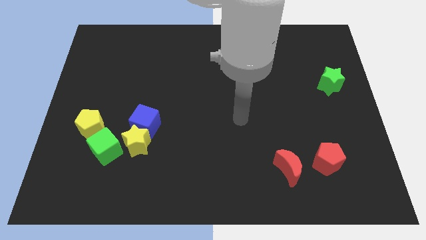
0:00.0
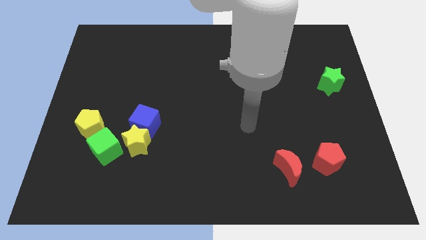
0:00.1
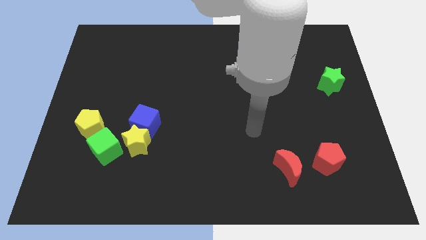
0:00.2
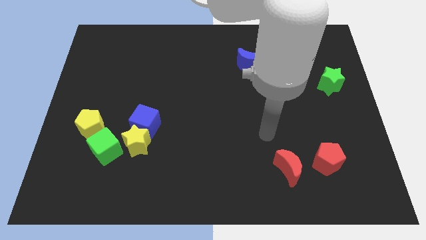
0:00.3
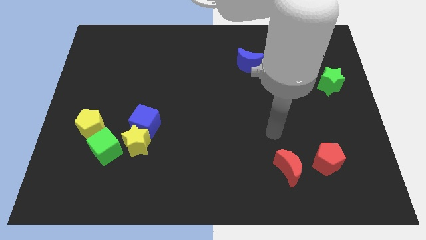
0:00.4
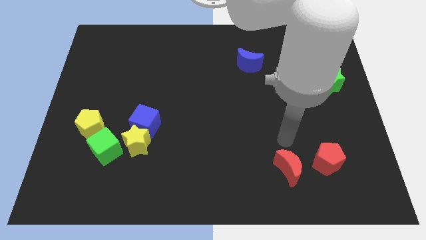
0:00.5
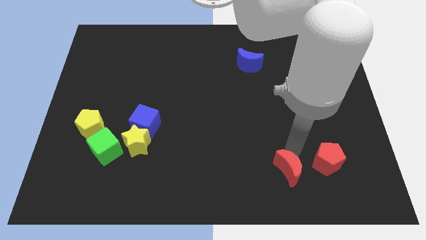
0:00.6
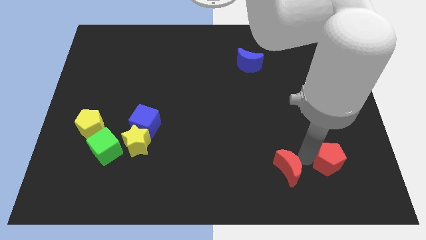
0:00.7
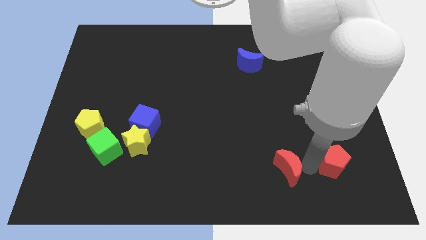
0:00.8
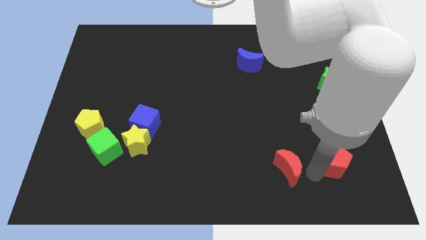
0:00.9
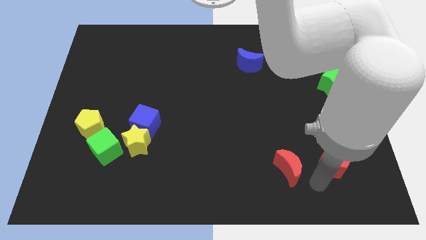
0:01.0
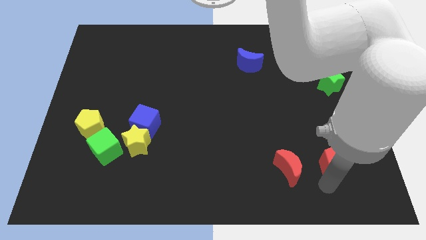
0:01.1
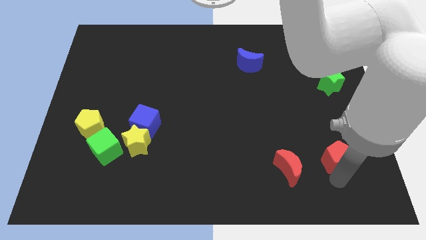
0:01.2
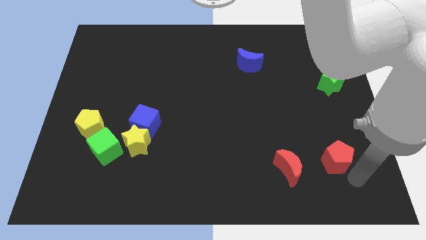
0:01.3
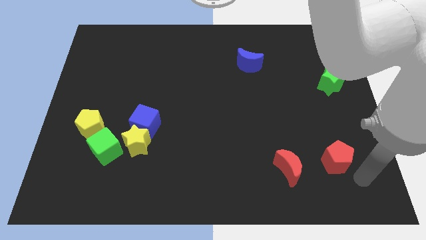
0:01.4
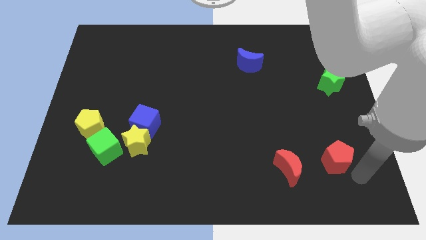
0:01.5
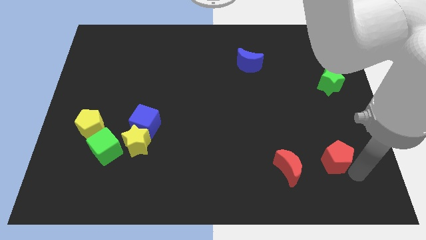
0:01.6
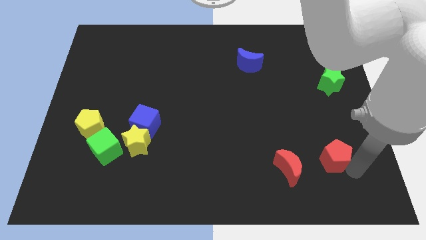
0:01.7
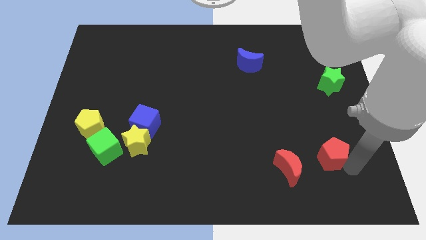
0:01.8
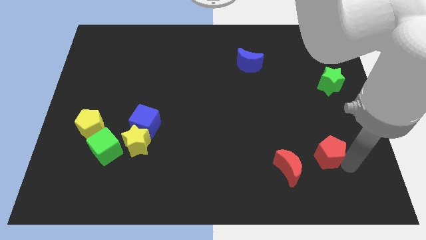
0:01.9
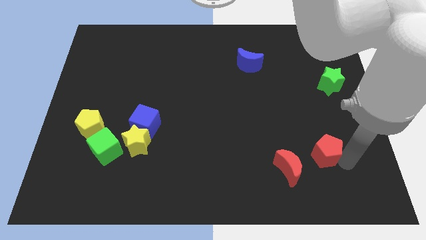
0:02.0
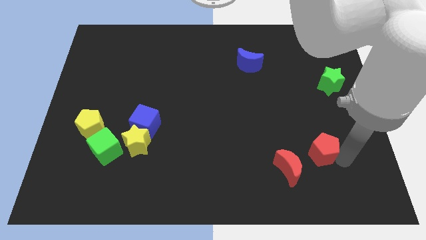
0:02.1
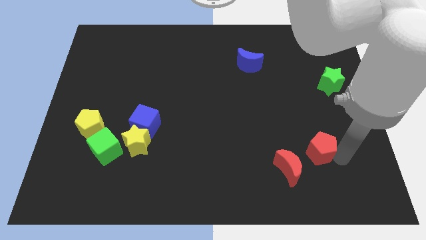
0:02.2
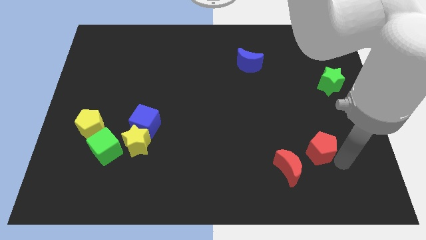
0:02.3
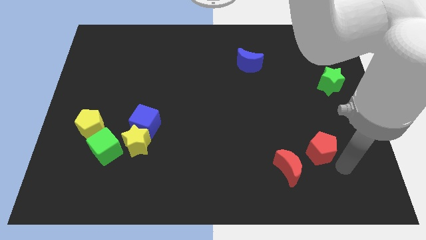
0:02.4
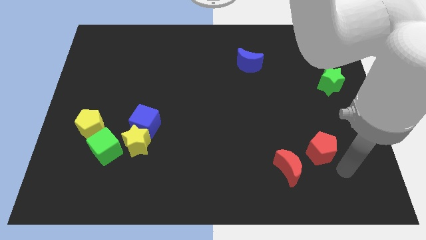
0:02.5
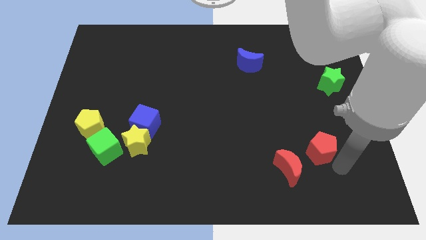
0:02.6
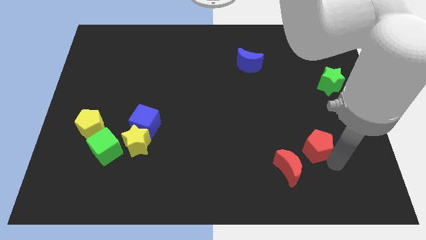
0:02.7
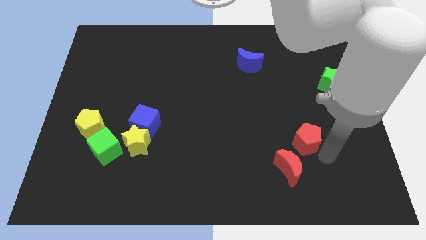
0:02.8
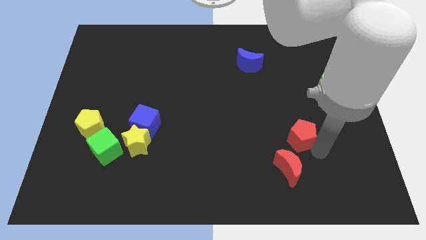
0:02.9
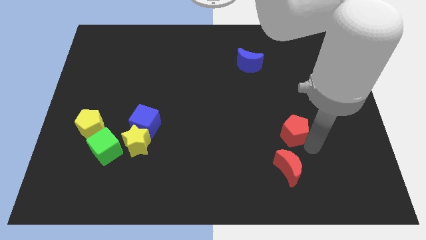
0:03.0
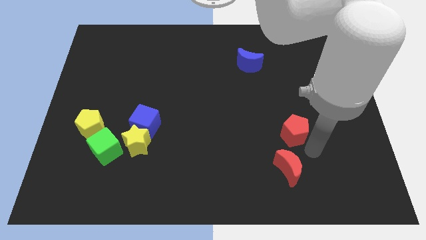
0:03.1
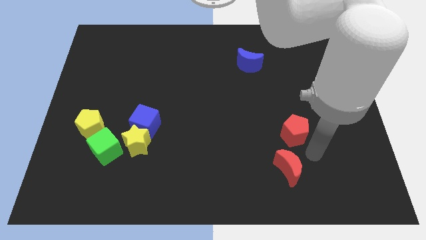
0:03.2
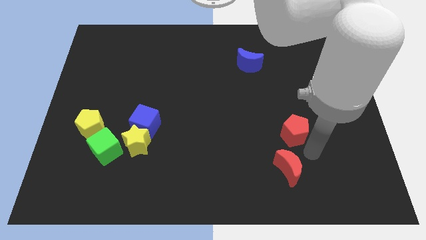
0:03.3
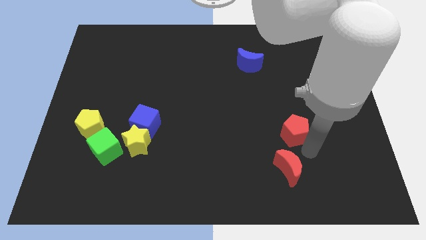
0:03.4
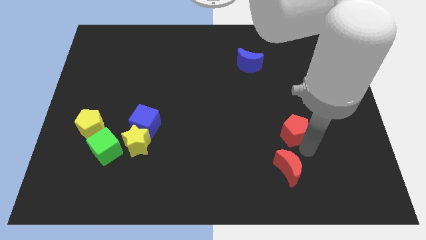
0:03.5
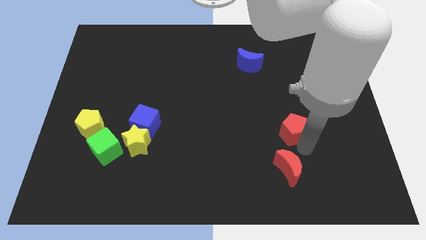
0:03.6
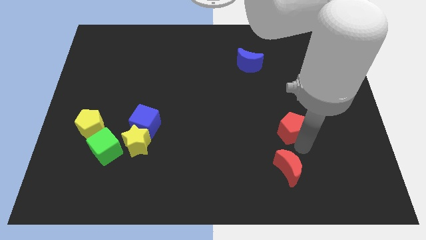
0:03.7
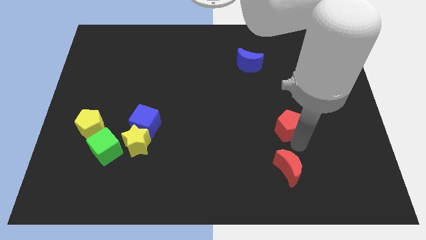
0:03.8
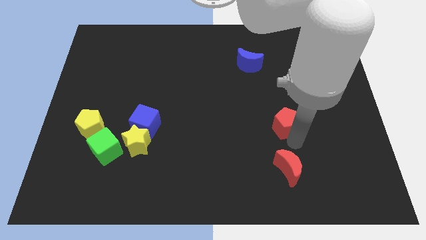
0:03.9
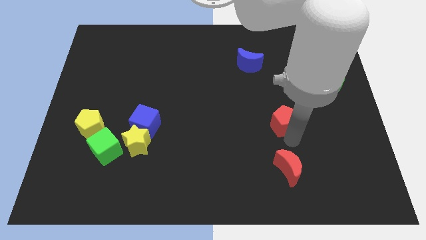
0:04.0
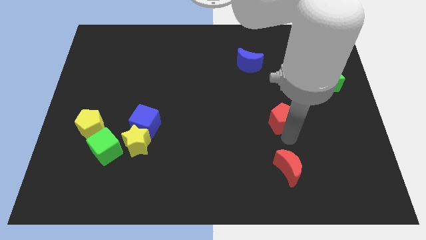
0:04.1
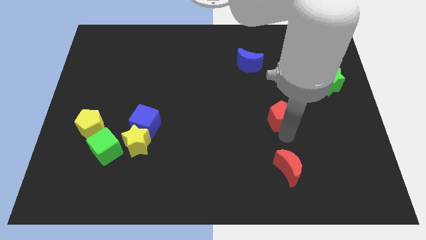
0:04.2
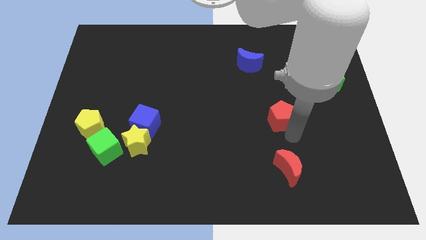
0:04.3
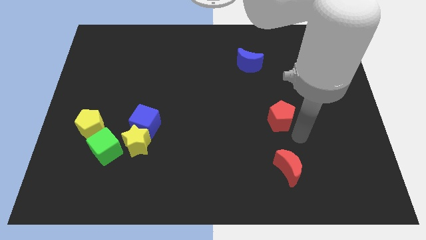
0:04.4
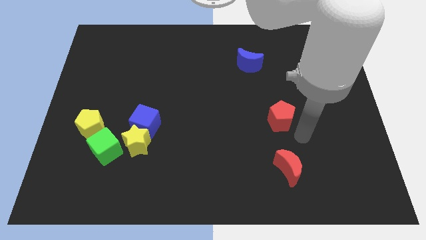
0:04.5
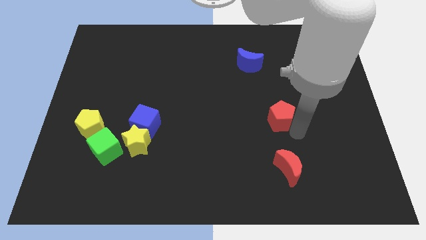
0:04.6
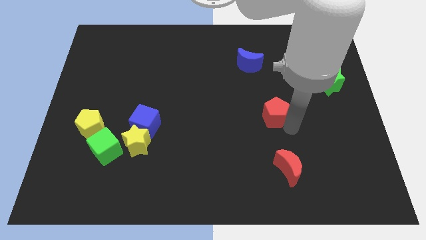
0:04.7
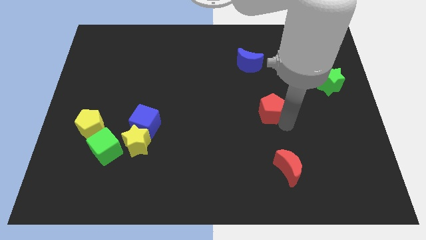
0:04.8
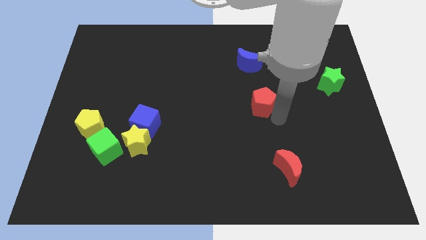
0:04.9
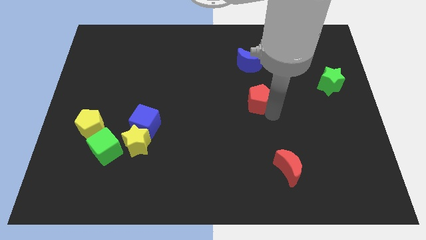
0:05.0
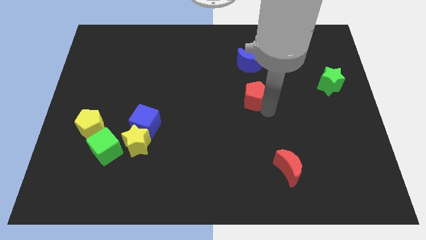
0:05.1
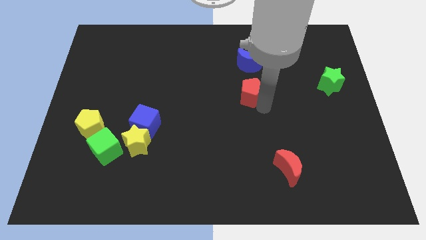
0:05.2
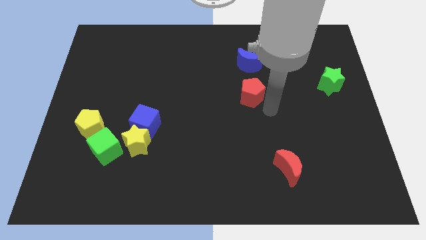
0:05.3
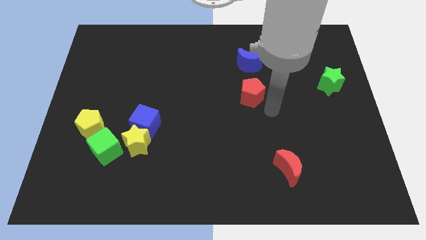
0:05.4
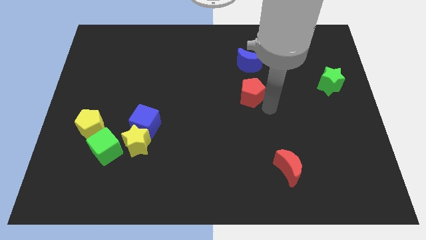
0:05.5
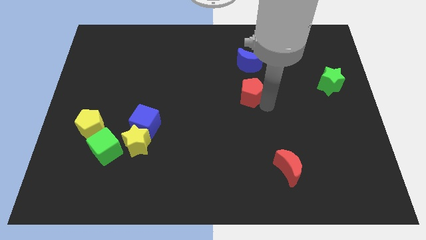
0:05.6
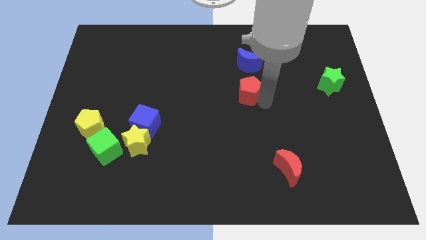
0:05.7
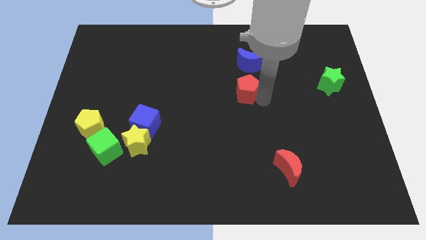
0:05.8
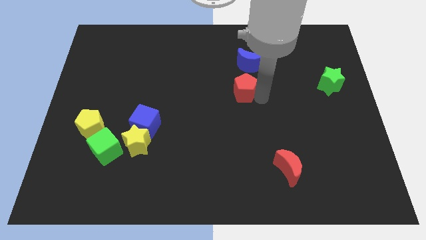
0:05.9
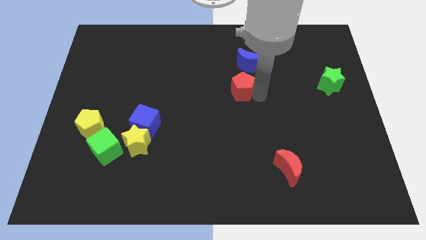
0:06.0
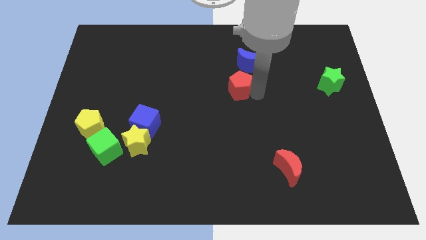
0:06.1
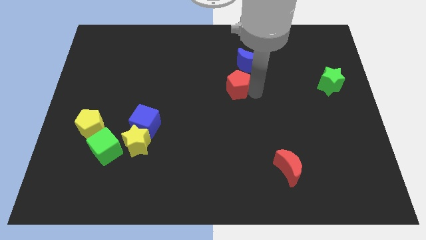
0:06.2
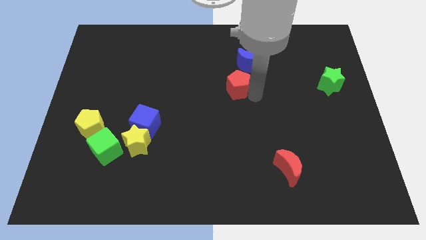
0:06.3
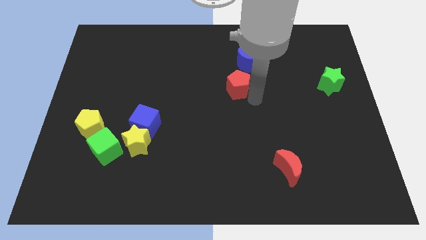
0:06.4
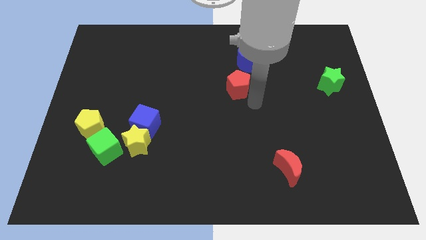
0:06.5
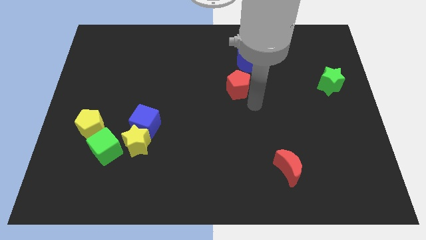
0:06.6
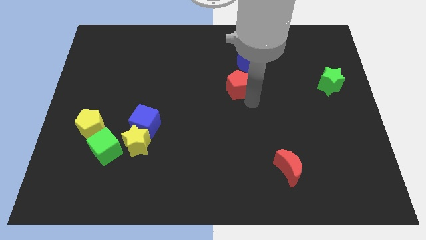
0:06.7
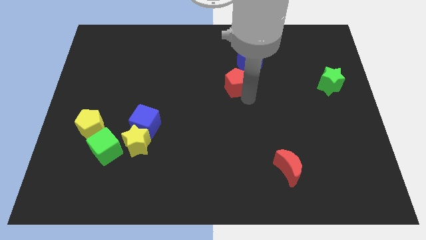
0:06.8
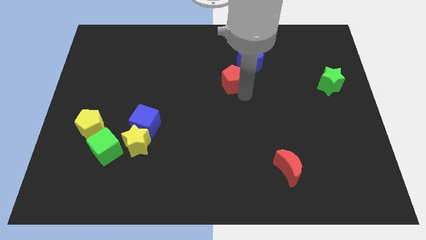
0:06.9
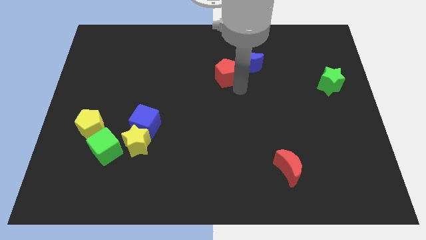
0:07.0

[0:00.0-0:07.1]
push the red pentagon left of the blue moon
